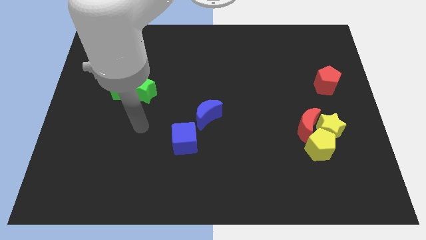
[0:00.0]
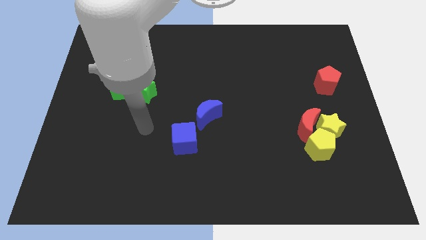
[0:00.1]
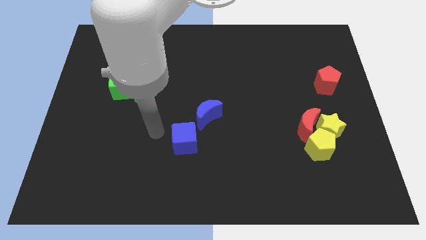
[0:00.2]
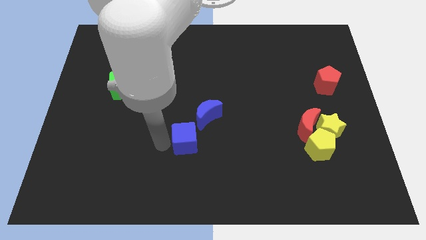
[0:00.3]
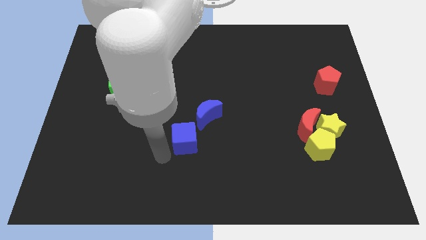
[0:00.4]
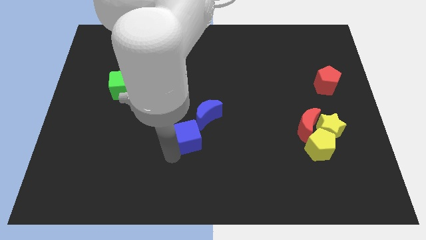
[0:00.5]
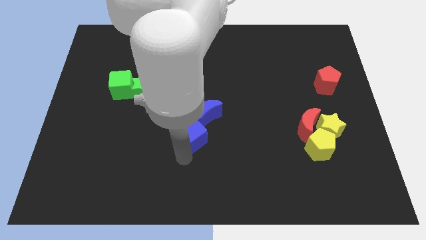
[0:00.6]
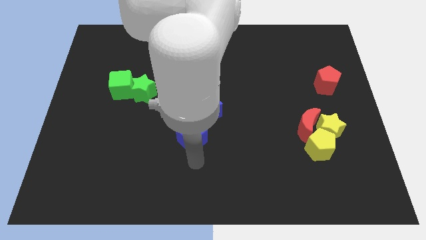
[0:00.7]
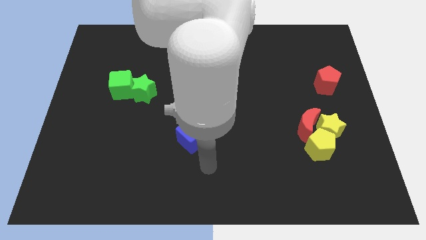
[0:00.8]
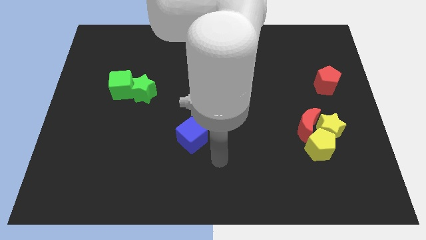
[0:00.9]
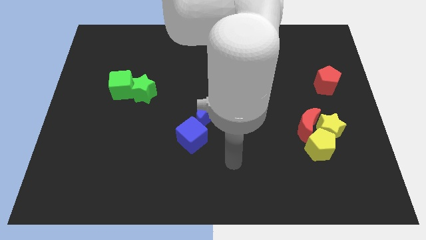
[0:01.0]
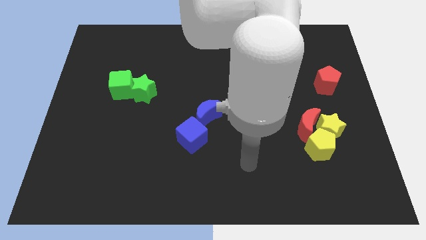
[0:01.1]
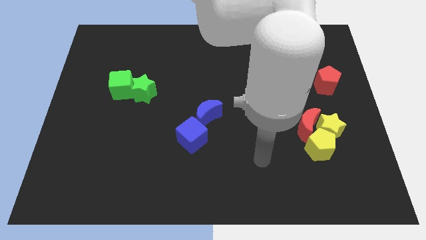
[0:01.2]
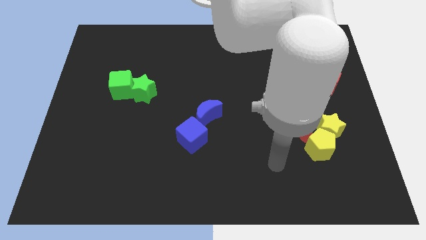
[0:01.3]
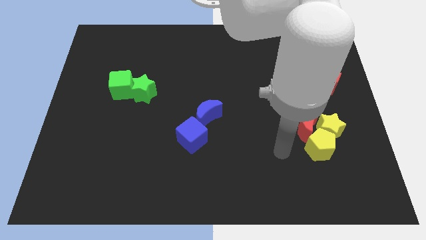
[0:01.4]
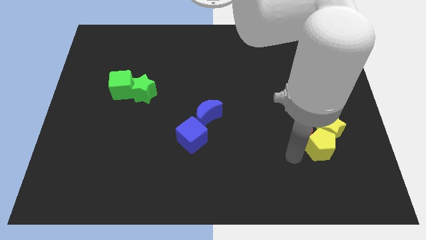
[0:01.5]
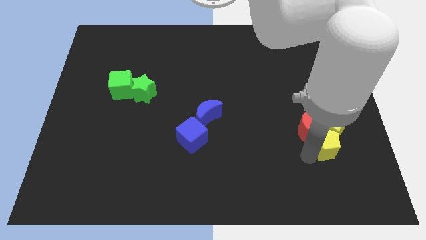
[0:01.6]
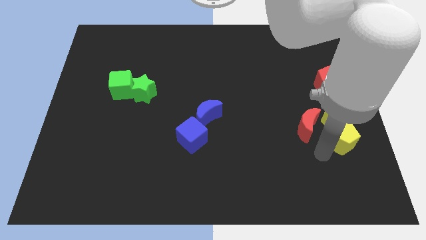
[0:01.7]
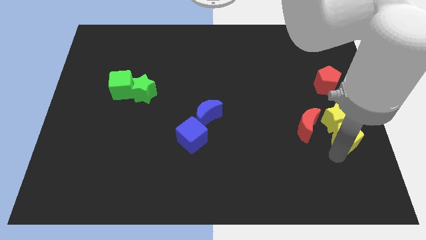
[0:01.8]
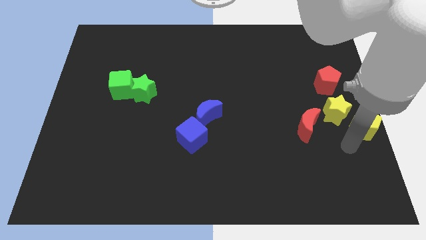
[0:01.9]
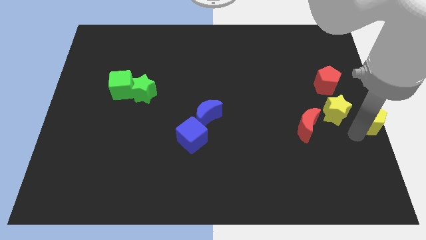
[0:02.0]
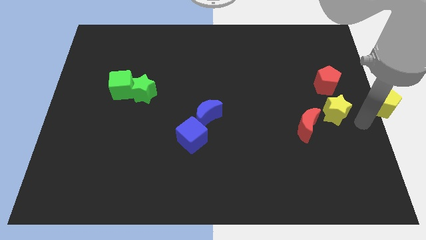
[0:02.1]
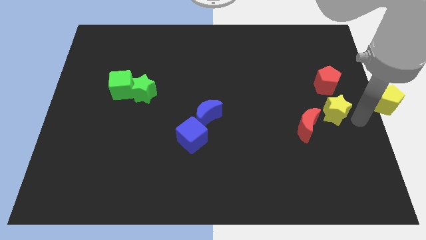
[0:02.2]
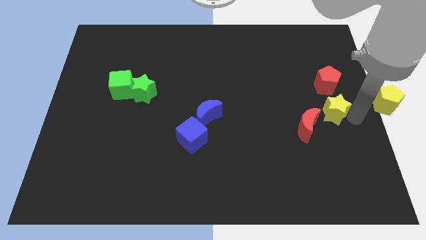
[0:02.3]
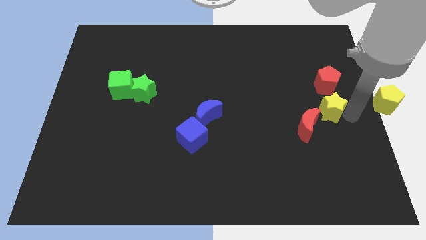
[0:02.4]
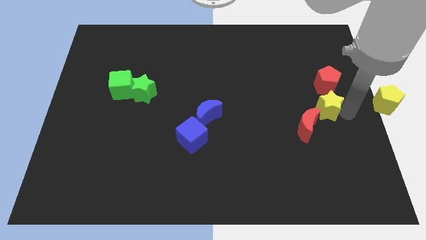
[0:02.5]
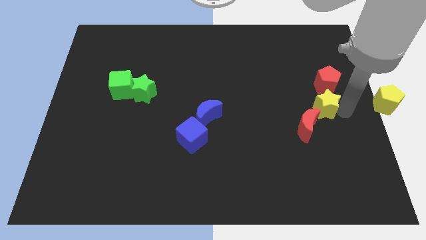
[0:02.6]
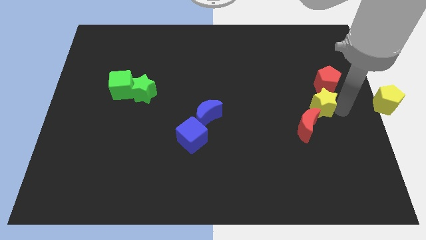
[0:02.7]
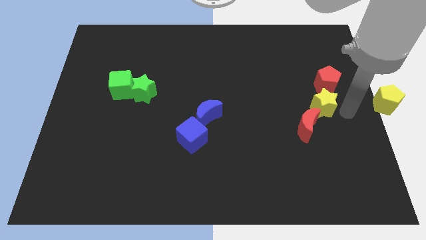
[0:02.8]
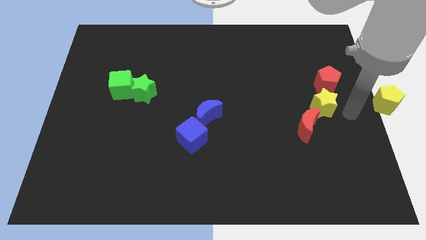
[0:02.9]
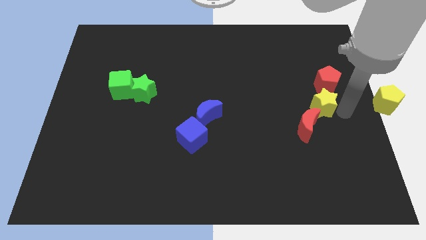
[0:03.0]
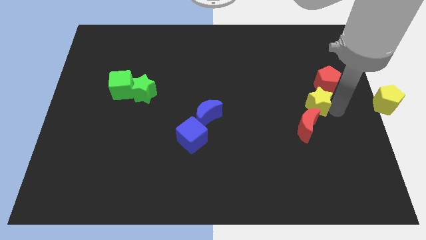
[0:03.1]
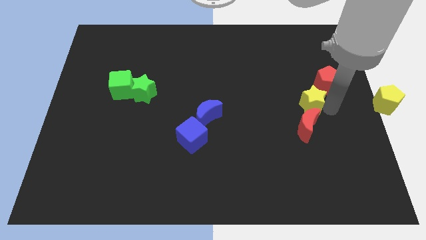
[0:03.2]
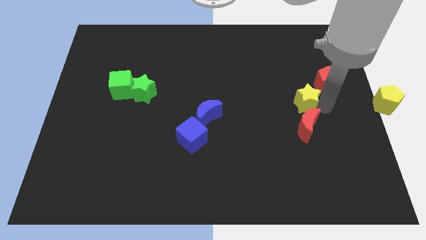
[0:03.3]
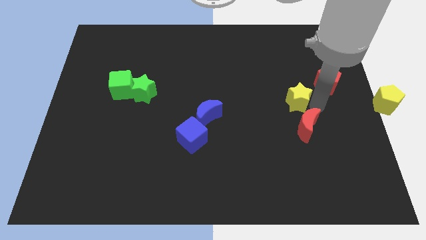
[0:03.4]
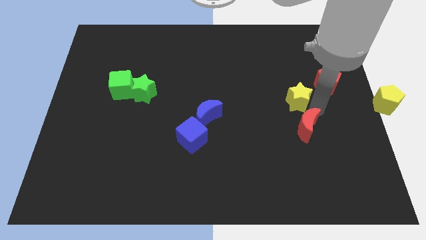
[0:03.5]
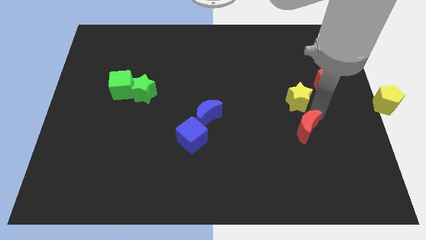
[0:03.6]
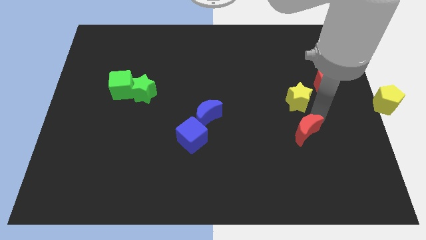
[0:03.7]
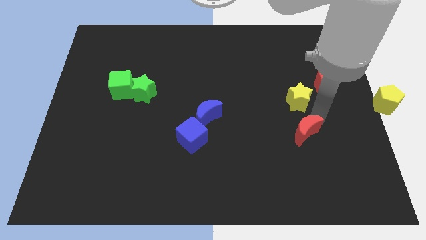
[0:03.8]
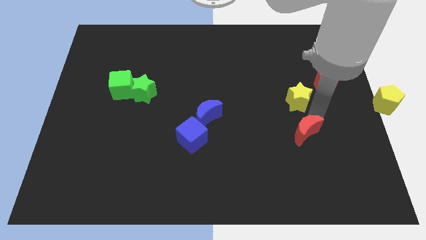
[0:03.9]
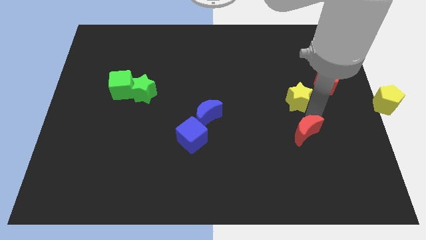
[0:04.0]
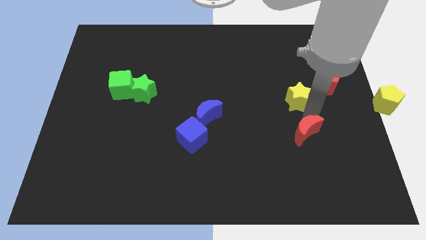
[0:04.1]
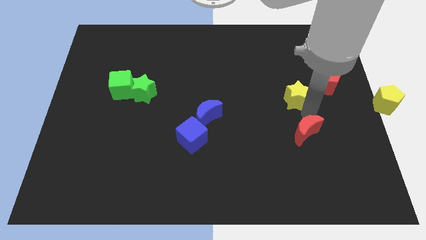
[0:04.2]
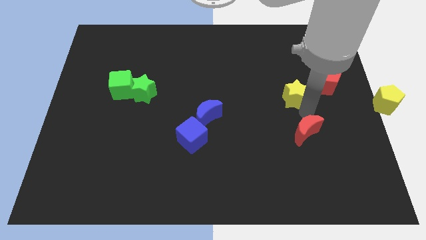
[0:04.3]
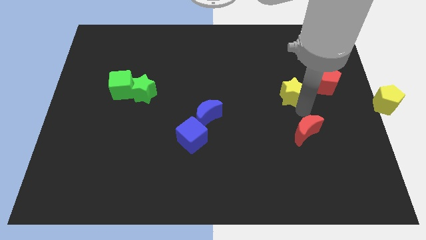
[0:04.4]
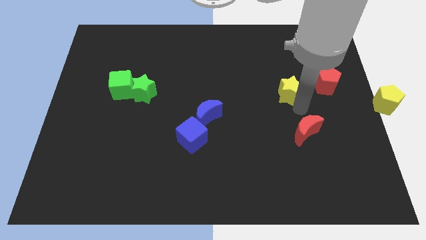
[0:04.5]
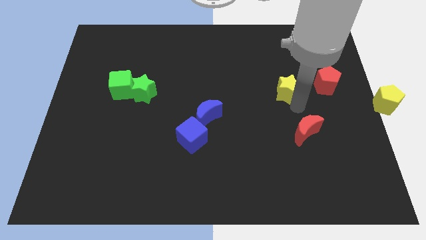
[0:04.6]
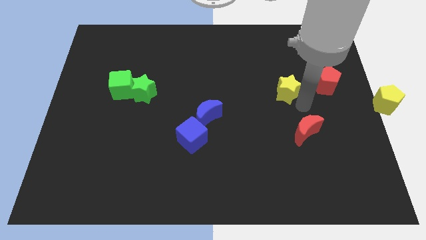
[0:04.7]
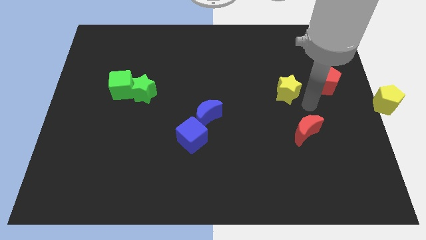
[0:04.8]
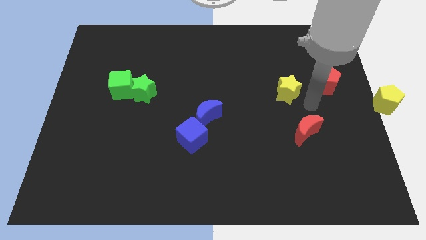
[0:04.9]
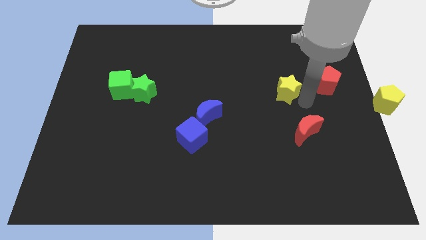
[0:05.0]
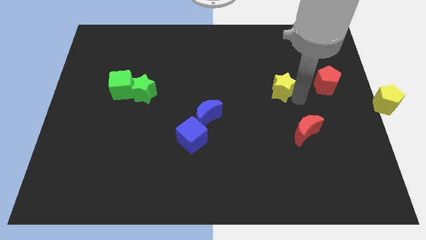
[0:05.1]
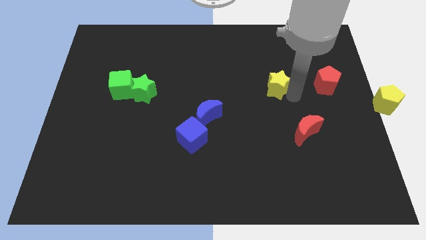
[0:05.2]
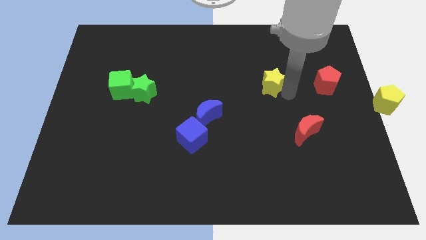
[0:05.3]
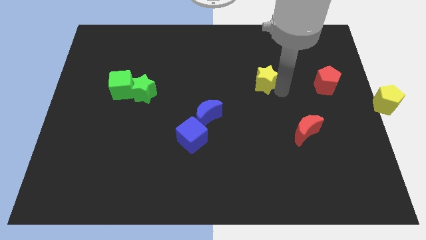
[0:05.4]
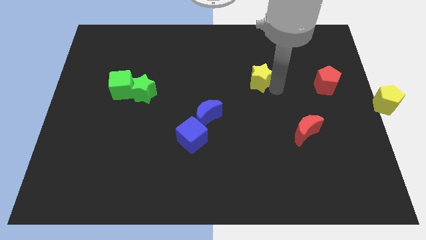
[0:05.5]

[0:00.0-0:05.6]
move the yellow star upwards and to the left

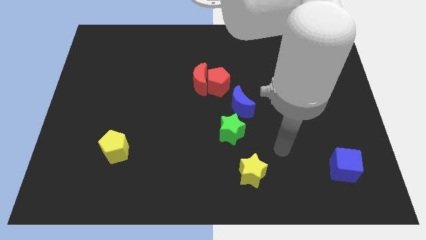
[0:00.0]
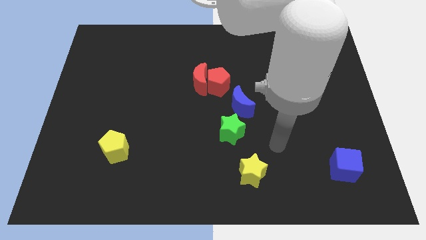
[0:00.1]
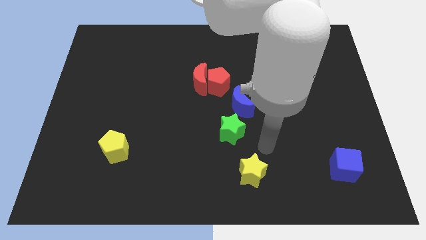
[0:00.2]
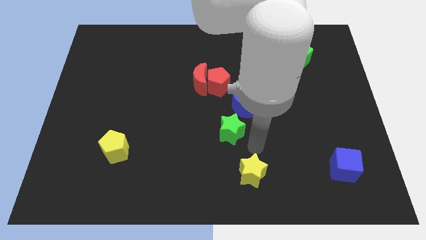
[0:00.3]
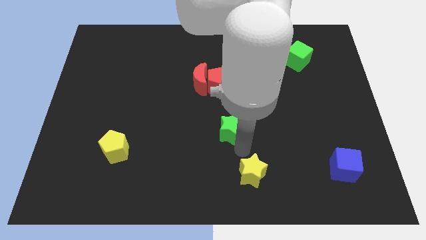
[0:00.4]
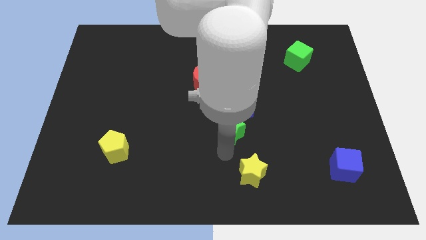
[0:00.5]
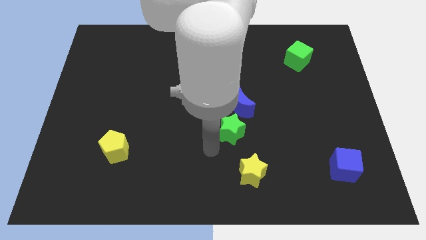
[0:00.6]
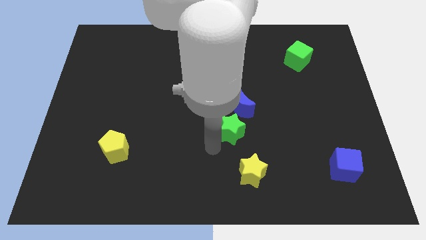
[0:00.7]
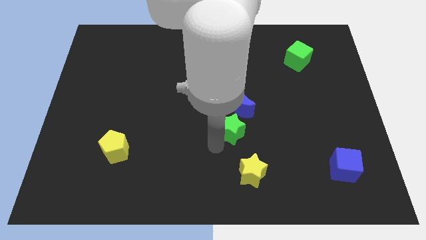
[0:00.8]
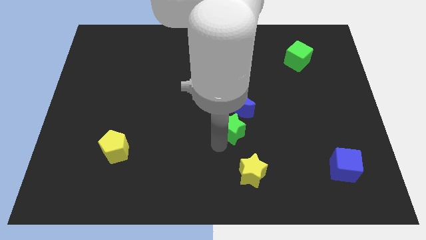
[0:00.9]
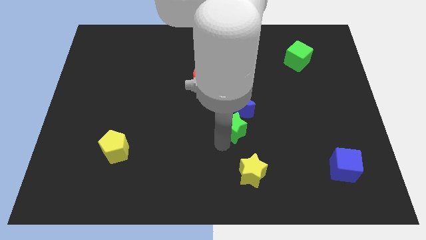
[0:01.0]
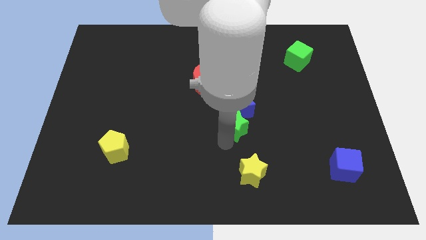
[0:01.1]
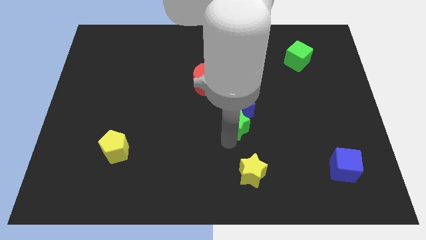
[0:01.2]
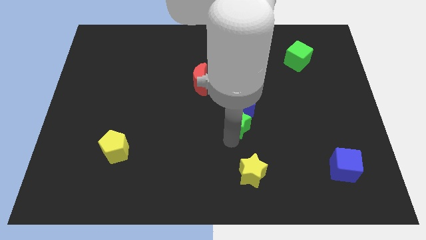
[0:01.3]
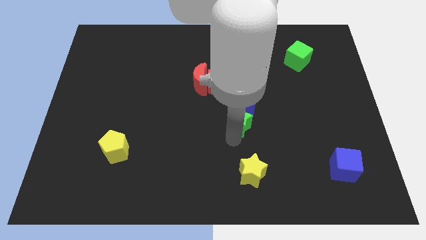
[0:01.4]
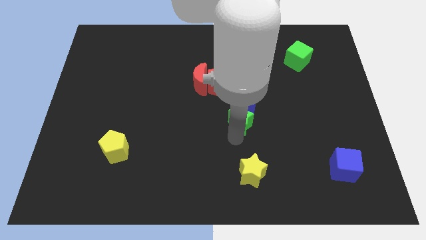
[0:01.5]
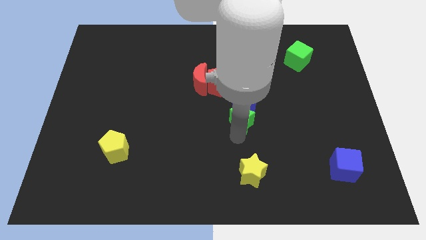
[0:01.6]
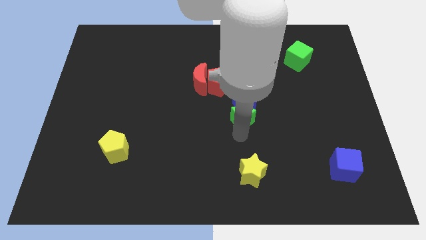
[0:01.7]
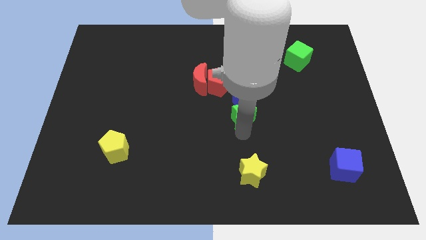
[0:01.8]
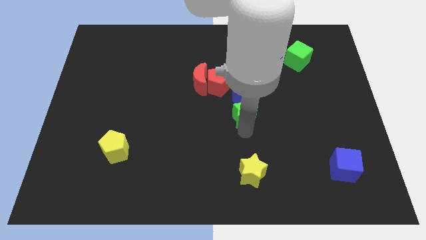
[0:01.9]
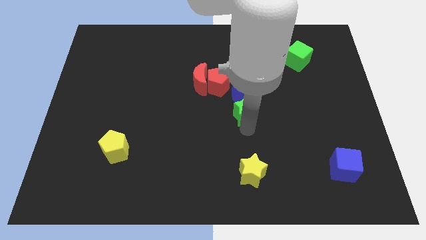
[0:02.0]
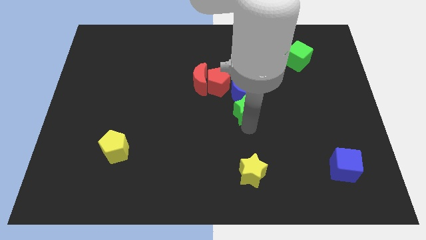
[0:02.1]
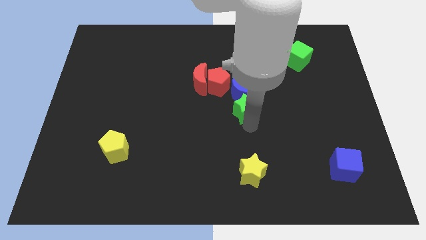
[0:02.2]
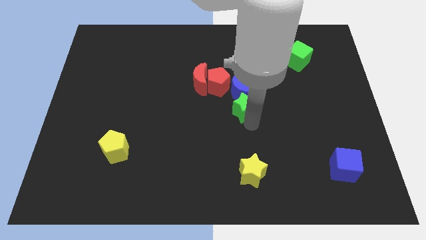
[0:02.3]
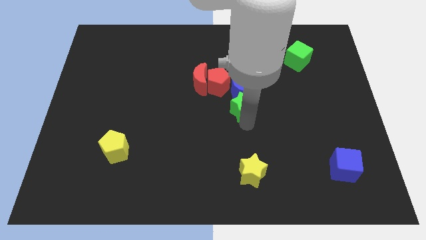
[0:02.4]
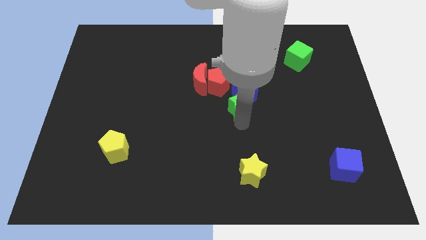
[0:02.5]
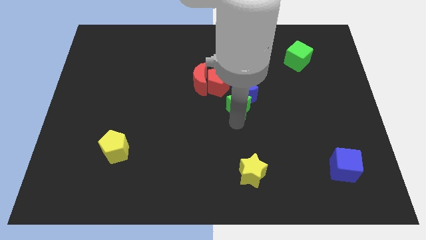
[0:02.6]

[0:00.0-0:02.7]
move the green star up a little
